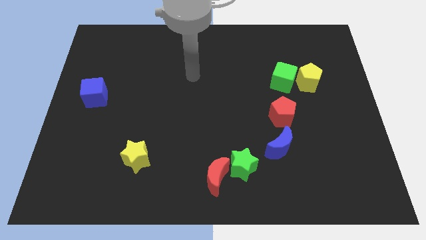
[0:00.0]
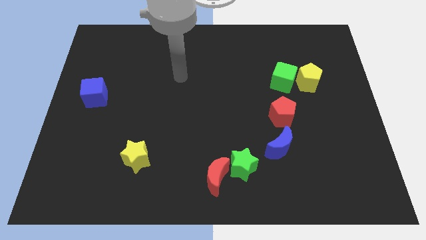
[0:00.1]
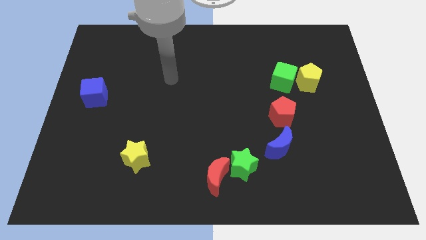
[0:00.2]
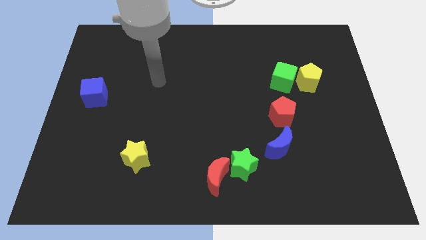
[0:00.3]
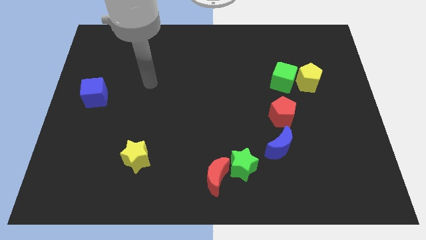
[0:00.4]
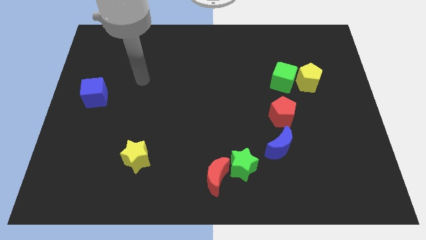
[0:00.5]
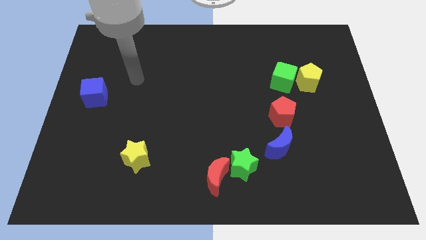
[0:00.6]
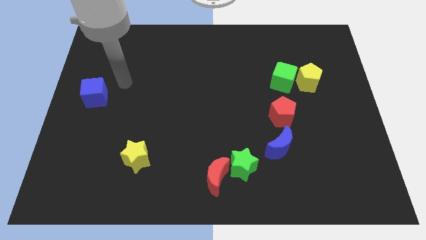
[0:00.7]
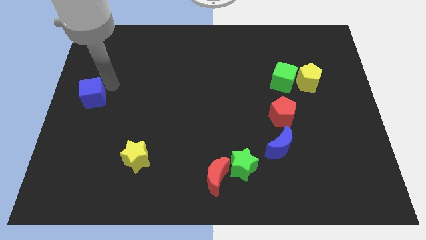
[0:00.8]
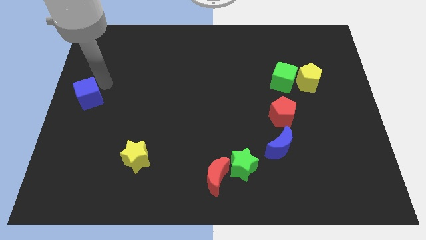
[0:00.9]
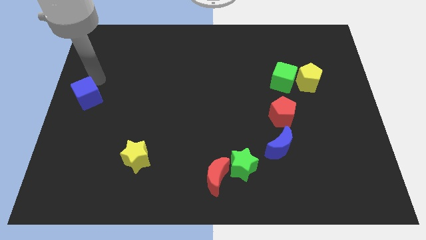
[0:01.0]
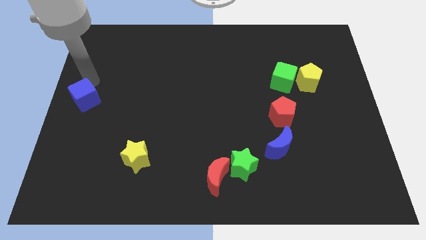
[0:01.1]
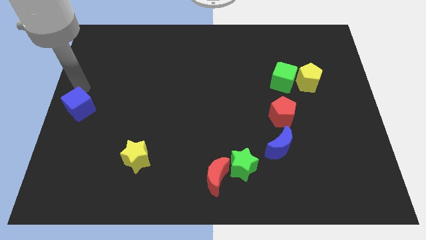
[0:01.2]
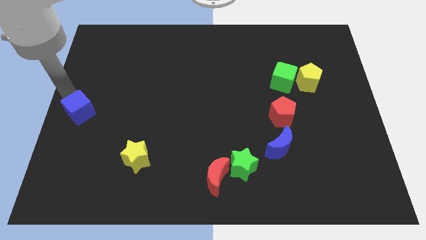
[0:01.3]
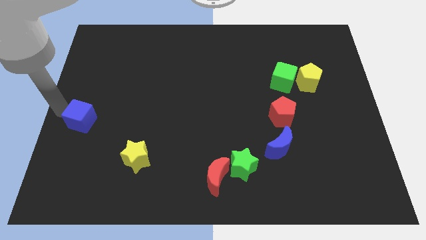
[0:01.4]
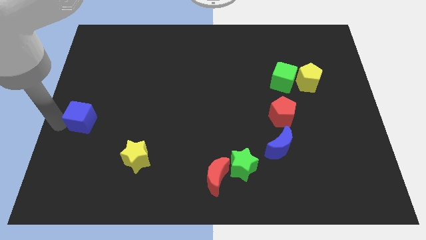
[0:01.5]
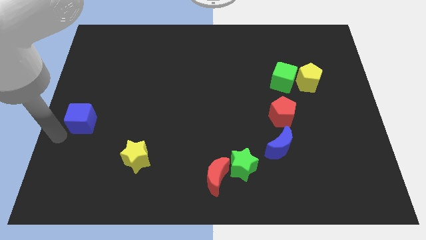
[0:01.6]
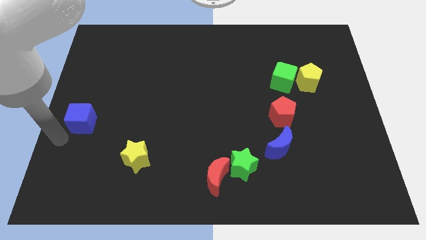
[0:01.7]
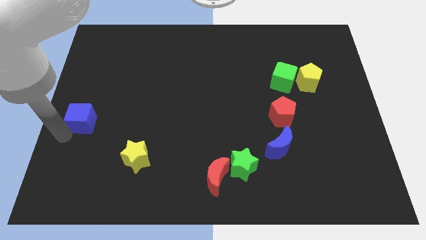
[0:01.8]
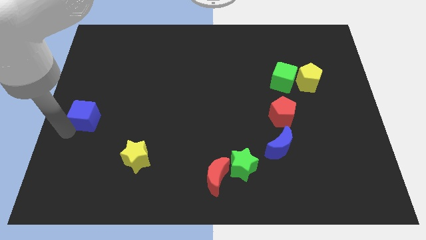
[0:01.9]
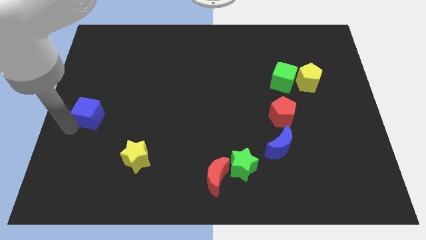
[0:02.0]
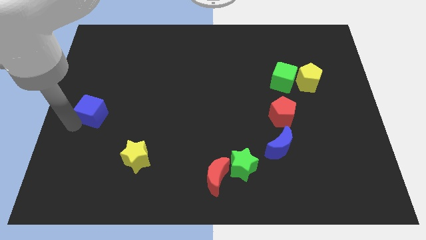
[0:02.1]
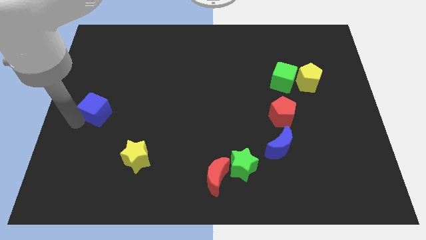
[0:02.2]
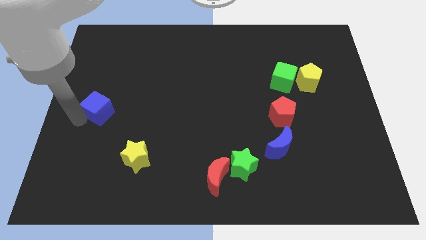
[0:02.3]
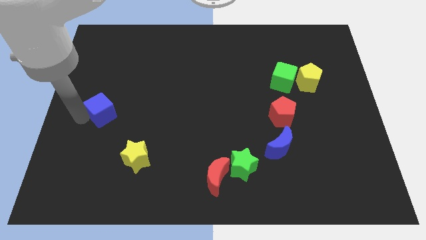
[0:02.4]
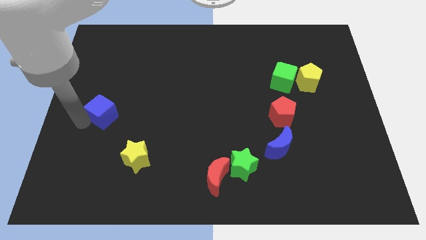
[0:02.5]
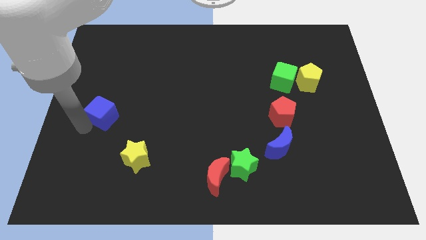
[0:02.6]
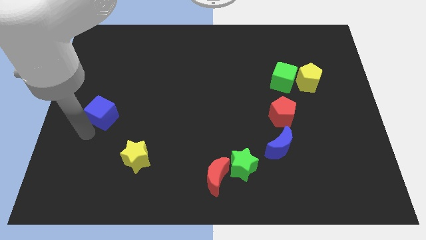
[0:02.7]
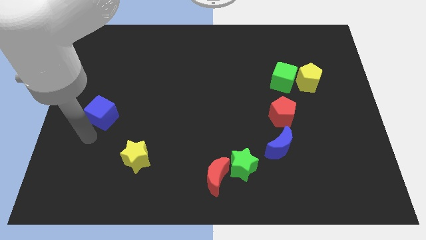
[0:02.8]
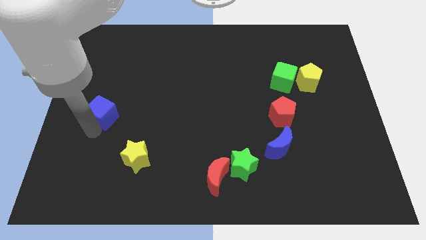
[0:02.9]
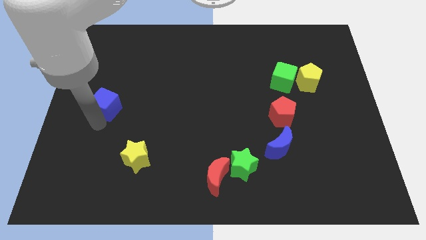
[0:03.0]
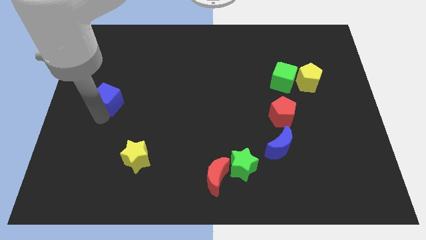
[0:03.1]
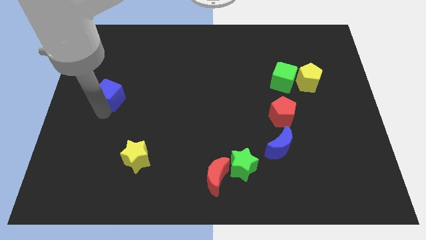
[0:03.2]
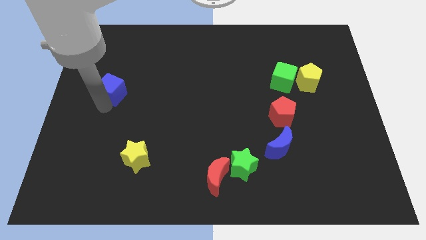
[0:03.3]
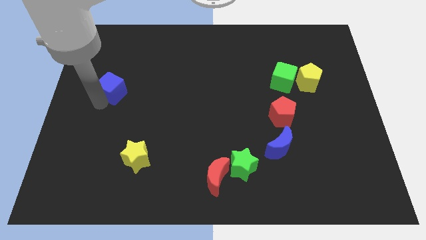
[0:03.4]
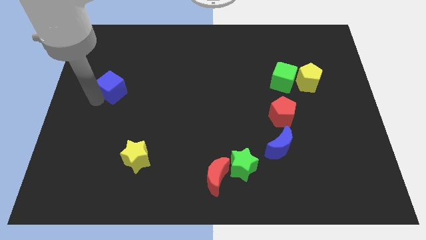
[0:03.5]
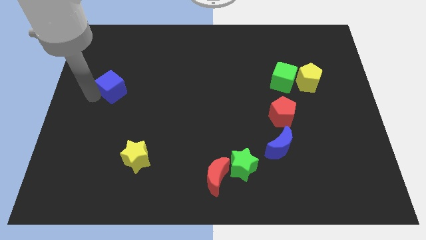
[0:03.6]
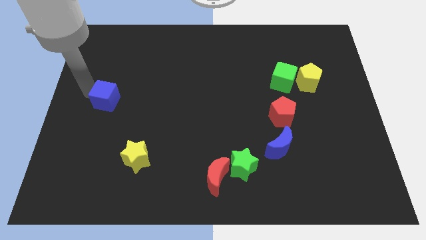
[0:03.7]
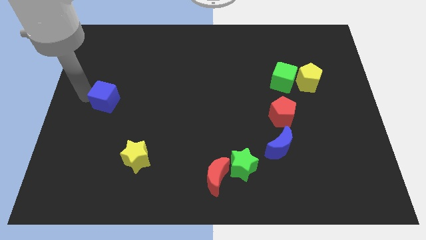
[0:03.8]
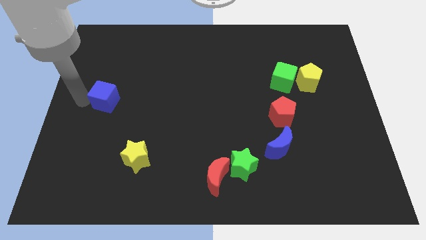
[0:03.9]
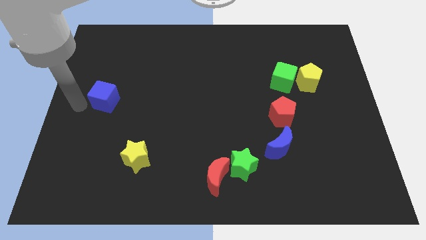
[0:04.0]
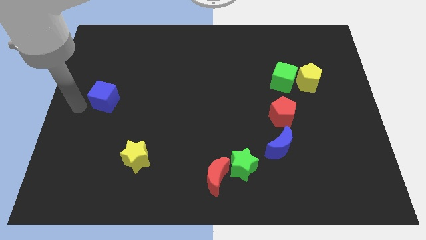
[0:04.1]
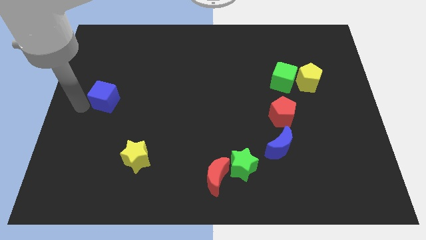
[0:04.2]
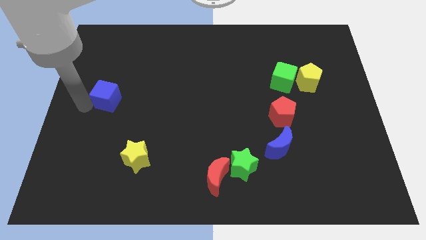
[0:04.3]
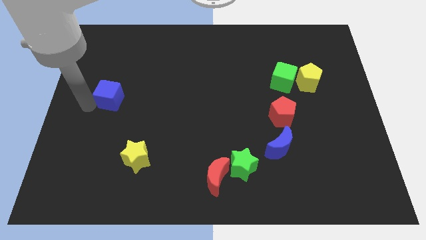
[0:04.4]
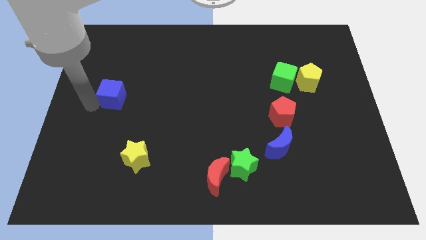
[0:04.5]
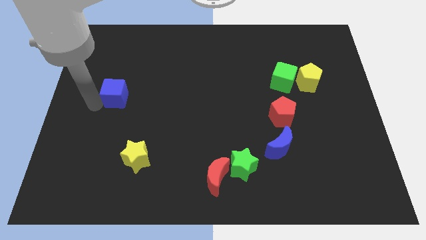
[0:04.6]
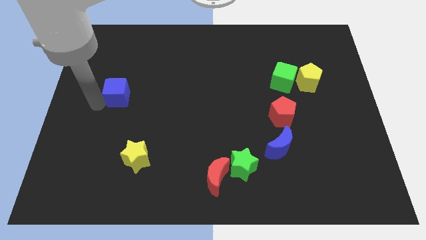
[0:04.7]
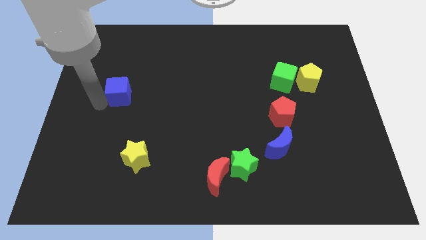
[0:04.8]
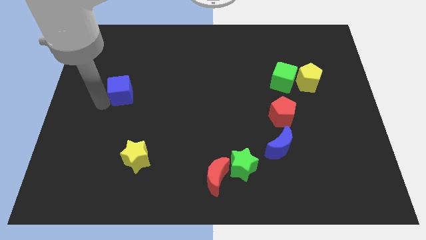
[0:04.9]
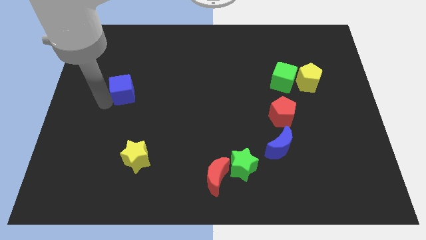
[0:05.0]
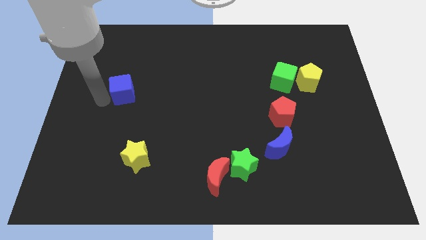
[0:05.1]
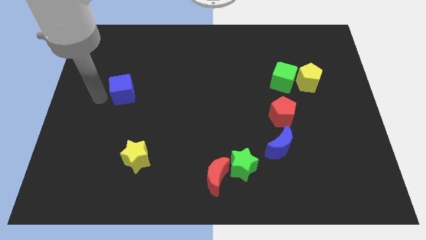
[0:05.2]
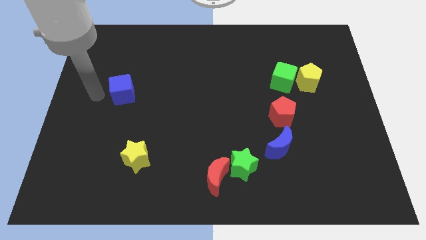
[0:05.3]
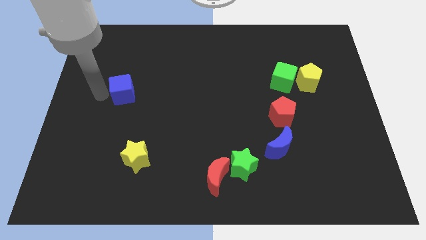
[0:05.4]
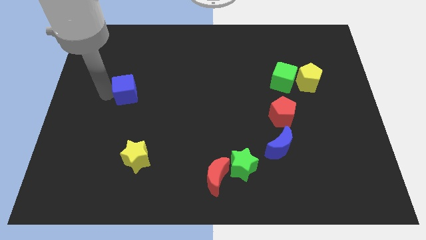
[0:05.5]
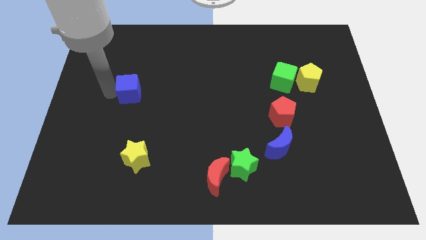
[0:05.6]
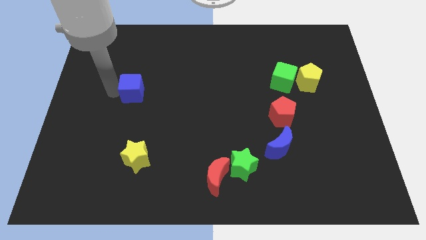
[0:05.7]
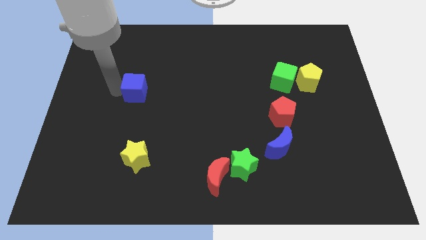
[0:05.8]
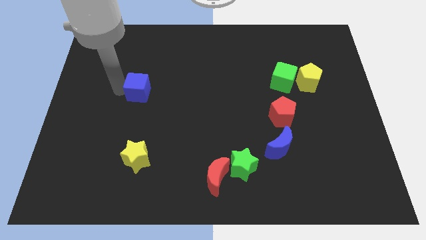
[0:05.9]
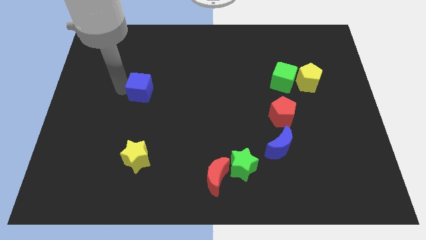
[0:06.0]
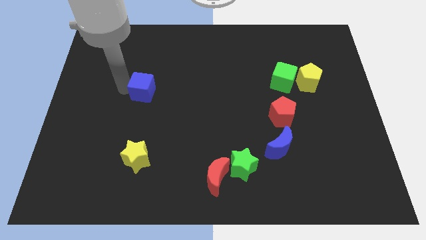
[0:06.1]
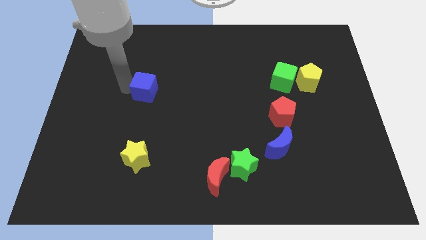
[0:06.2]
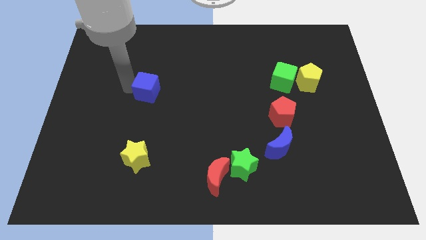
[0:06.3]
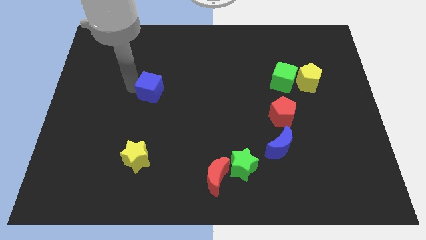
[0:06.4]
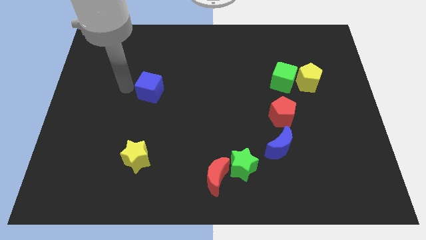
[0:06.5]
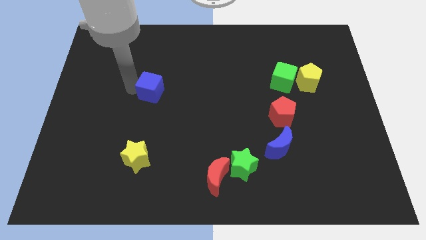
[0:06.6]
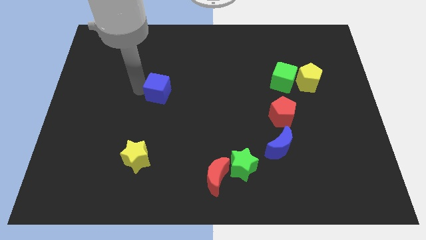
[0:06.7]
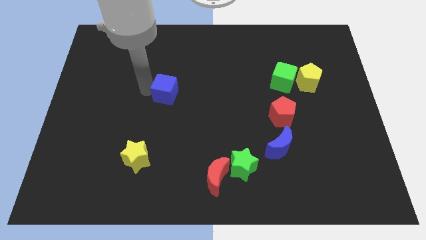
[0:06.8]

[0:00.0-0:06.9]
put the blue cube to the middle of the board
